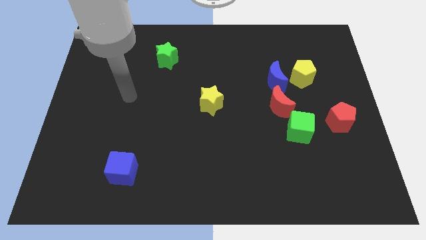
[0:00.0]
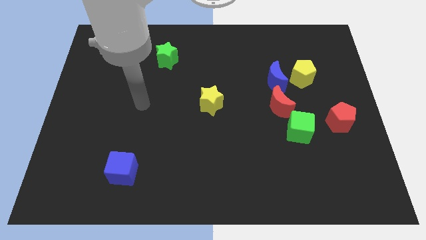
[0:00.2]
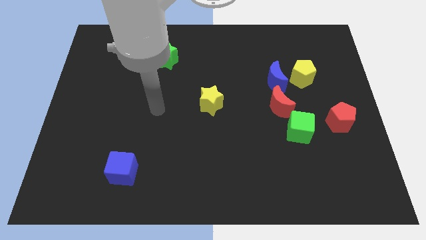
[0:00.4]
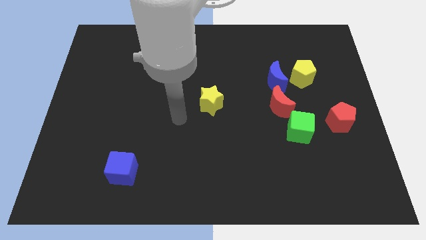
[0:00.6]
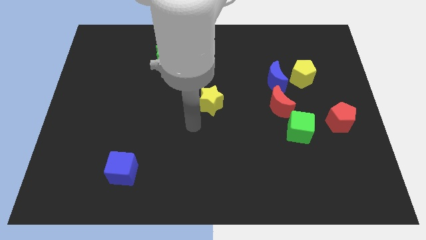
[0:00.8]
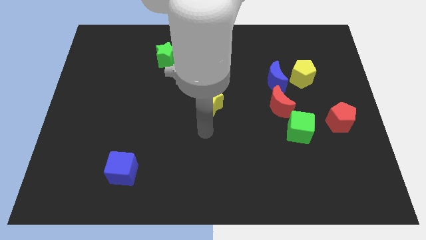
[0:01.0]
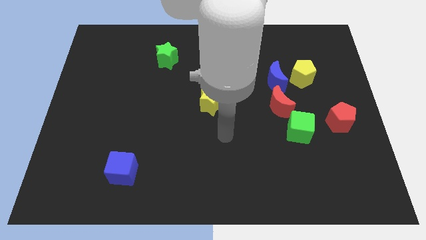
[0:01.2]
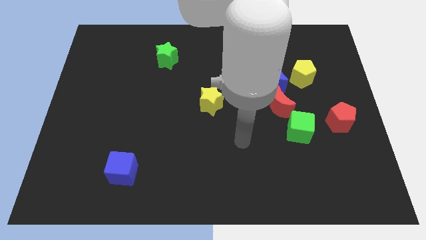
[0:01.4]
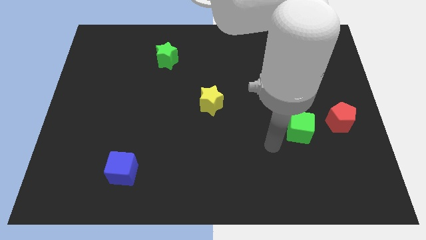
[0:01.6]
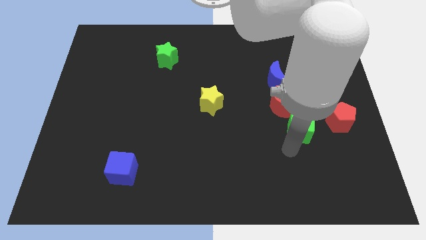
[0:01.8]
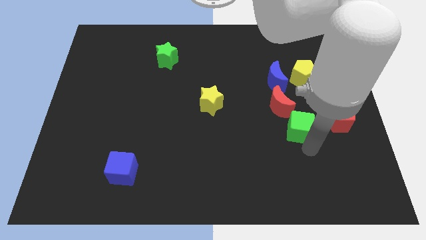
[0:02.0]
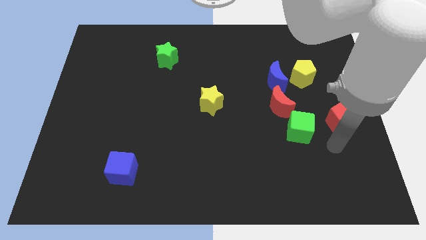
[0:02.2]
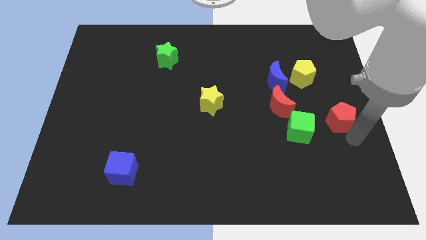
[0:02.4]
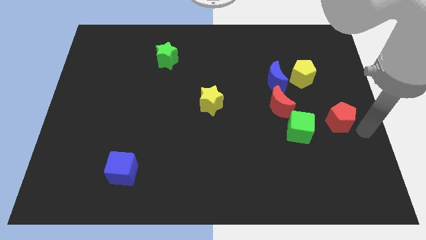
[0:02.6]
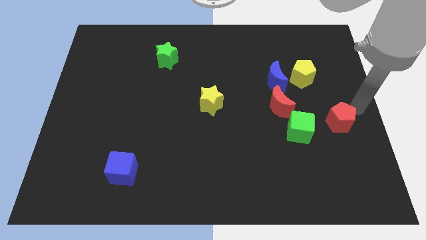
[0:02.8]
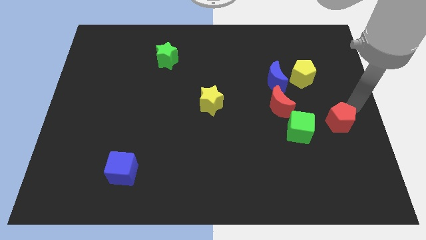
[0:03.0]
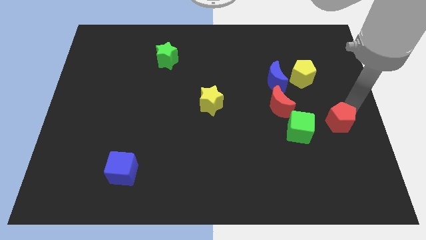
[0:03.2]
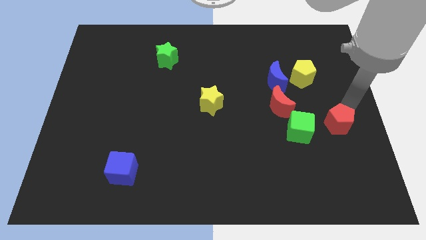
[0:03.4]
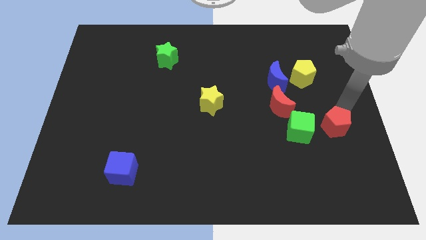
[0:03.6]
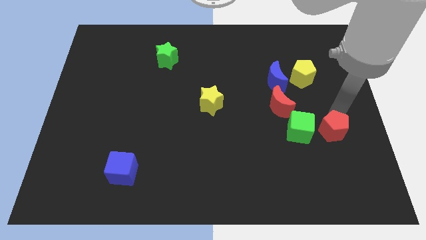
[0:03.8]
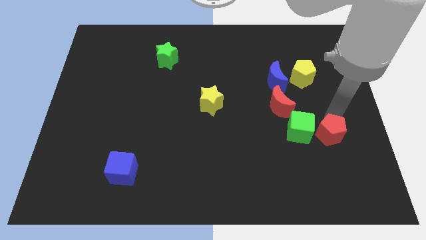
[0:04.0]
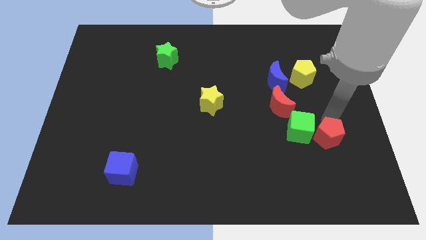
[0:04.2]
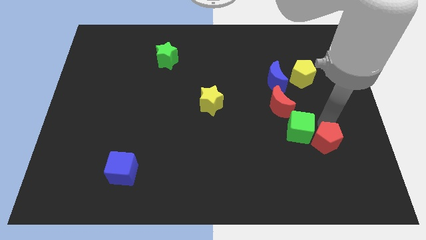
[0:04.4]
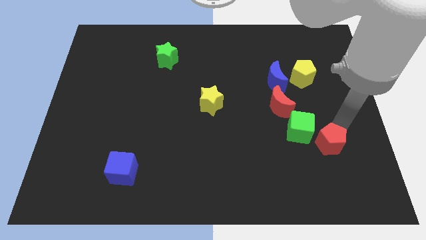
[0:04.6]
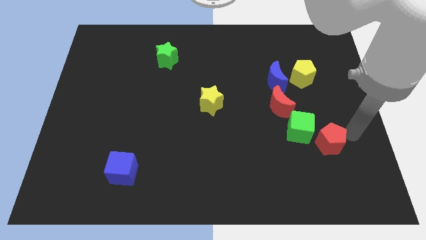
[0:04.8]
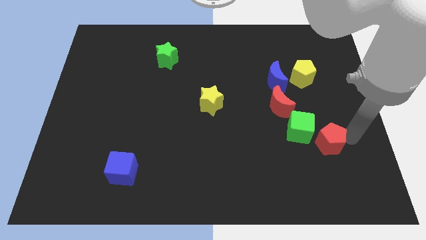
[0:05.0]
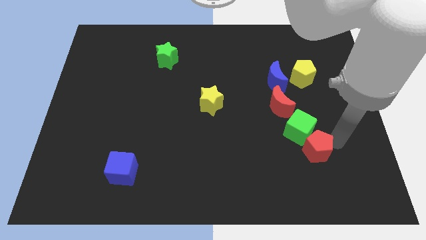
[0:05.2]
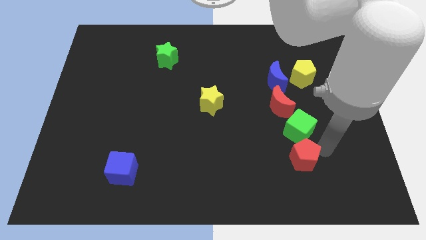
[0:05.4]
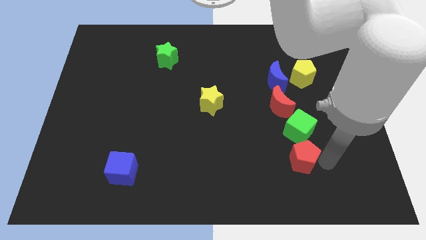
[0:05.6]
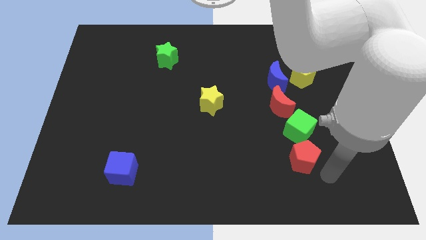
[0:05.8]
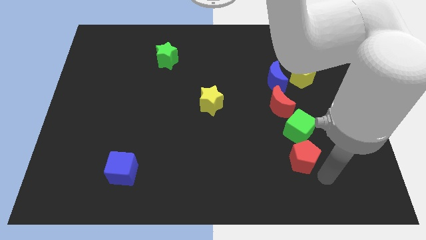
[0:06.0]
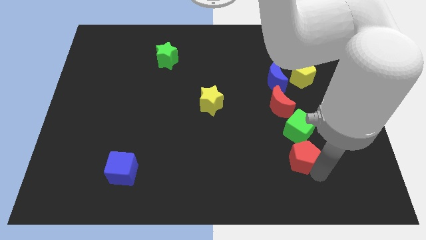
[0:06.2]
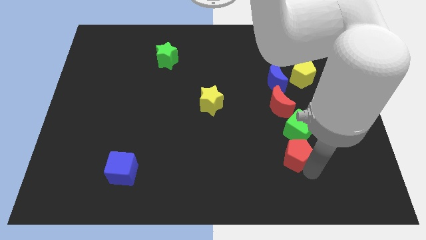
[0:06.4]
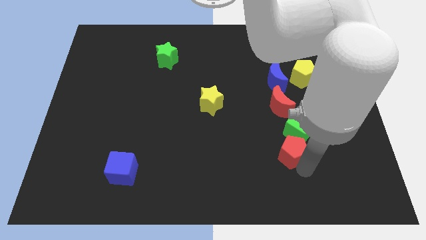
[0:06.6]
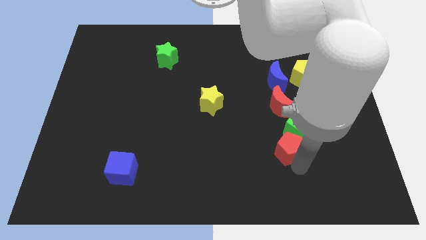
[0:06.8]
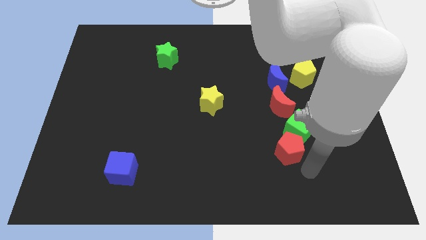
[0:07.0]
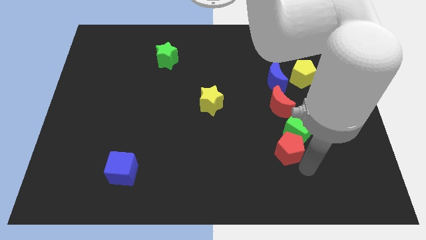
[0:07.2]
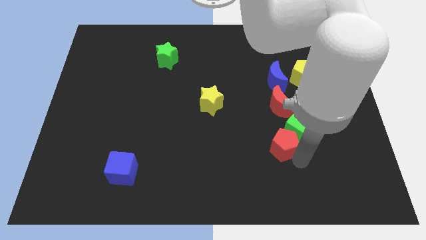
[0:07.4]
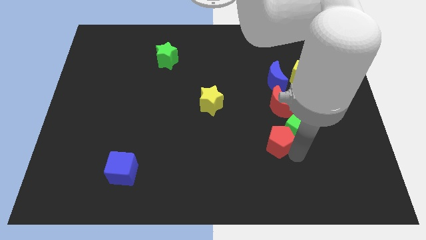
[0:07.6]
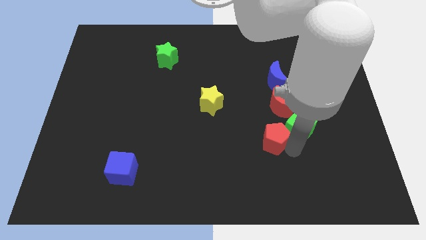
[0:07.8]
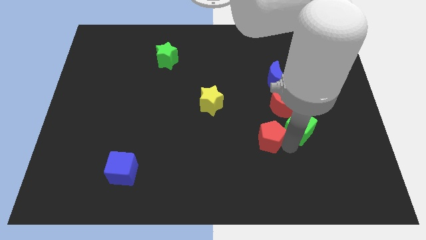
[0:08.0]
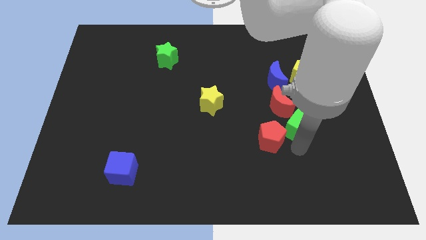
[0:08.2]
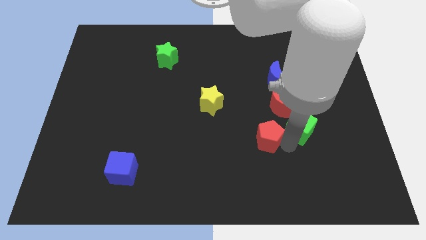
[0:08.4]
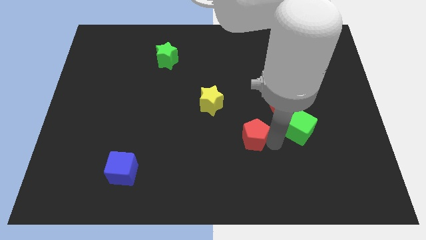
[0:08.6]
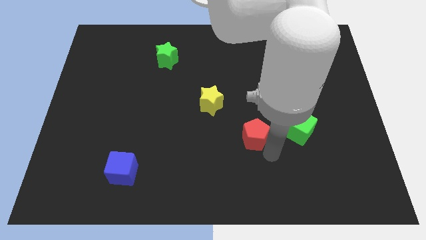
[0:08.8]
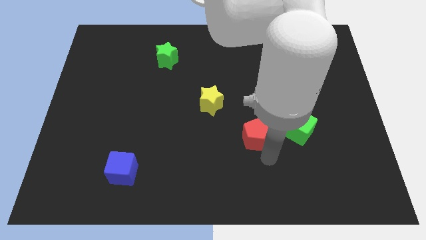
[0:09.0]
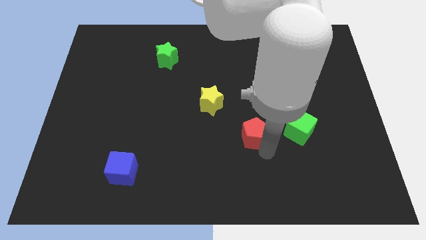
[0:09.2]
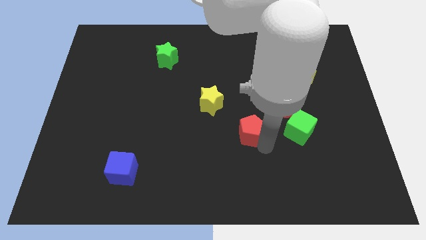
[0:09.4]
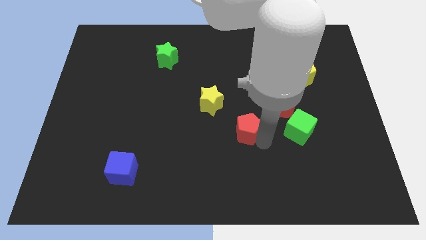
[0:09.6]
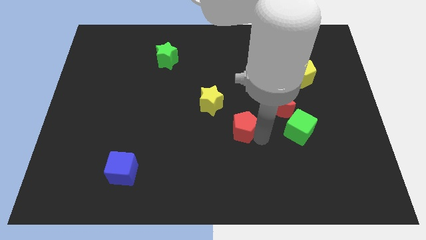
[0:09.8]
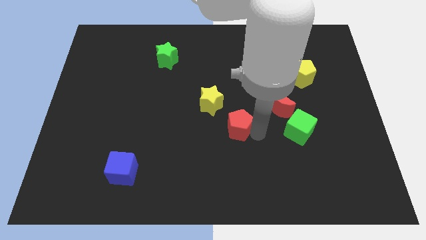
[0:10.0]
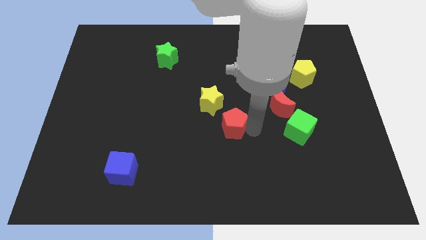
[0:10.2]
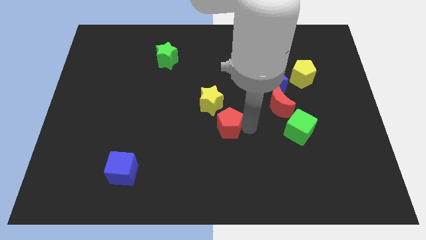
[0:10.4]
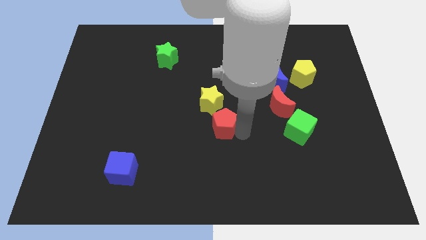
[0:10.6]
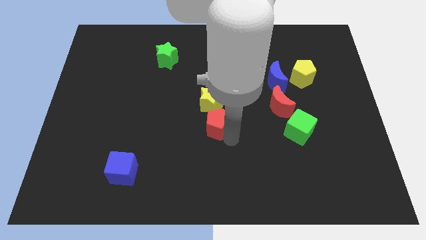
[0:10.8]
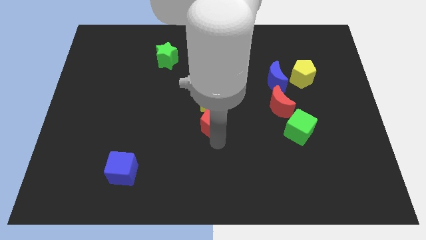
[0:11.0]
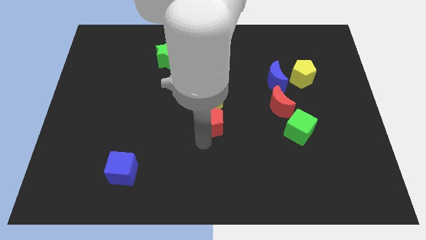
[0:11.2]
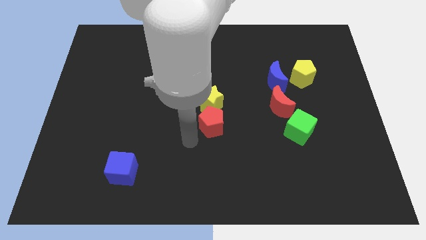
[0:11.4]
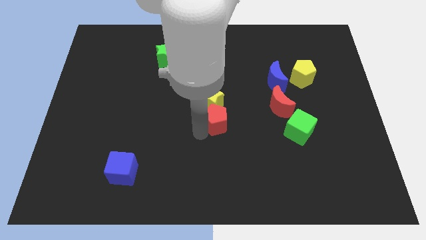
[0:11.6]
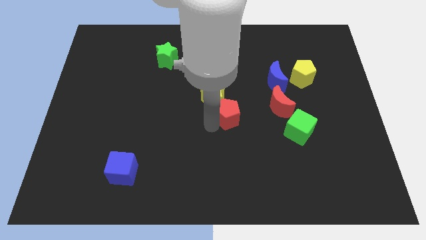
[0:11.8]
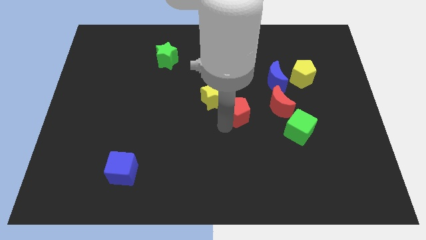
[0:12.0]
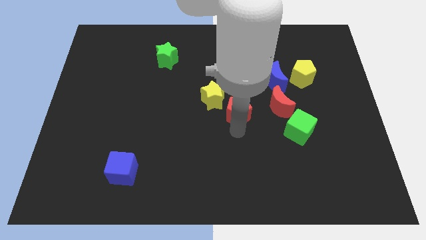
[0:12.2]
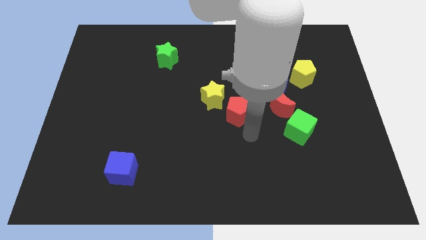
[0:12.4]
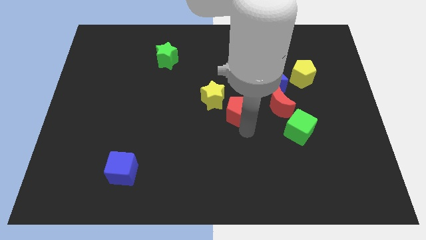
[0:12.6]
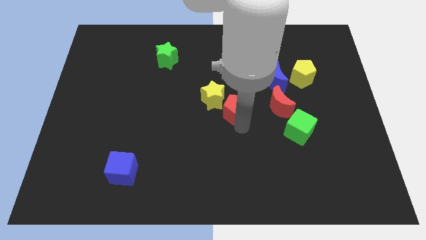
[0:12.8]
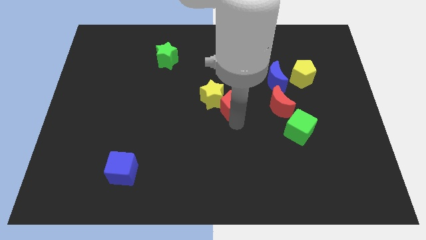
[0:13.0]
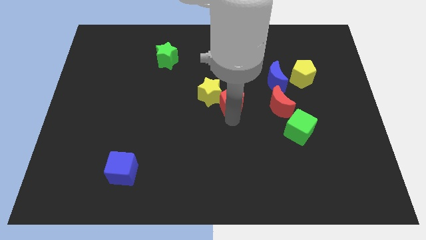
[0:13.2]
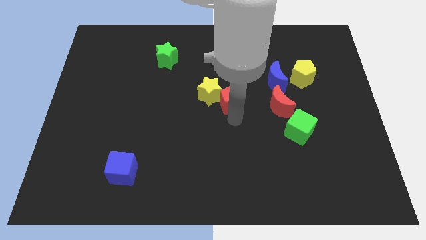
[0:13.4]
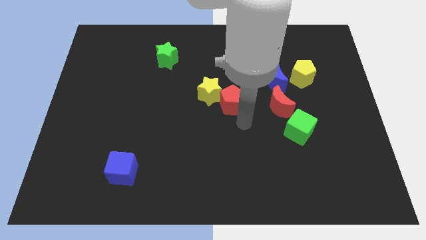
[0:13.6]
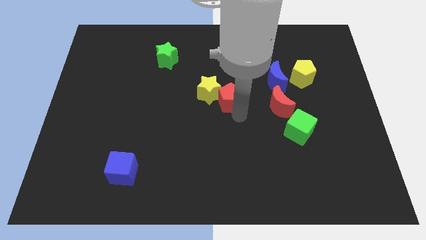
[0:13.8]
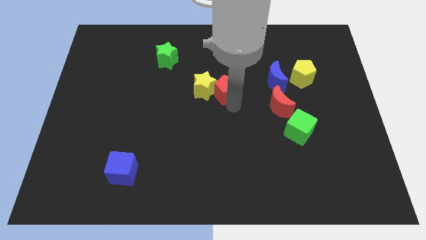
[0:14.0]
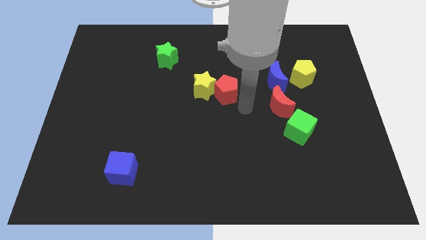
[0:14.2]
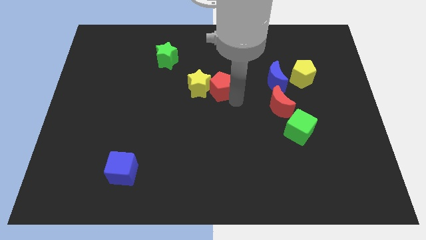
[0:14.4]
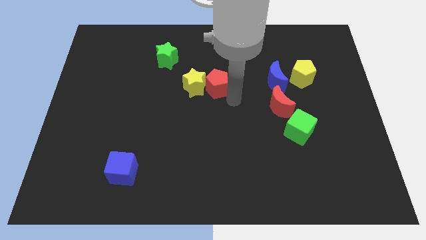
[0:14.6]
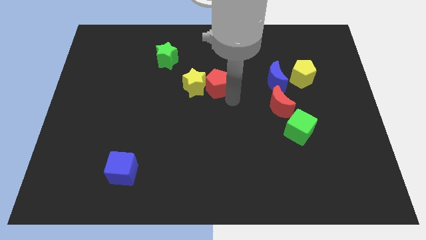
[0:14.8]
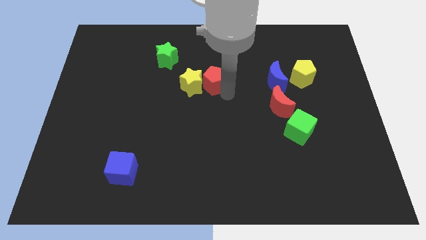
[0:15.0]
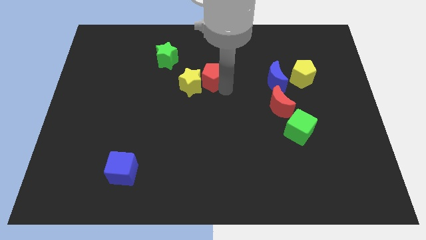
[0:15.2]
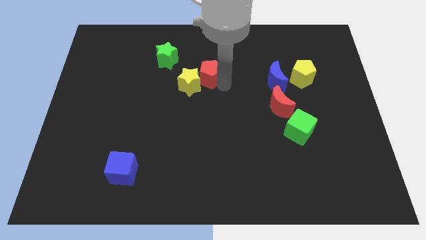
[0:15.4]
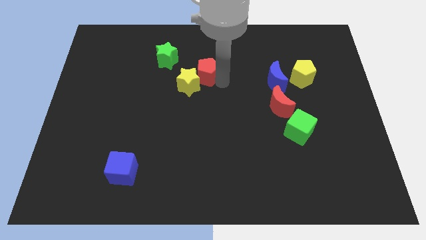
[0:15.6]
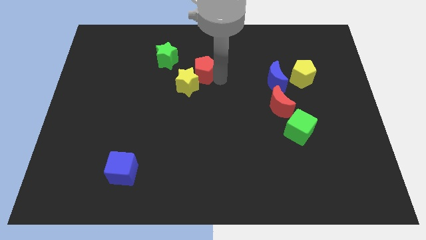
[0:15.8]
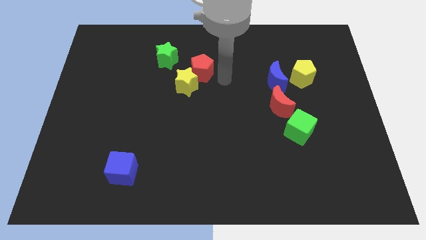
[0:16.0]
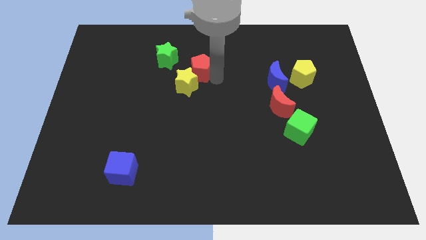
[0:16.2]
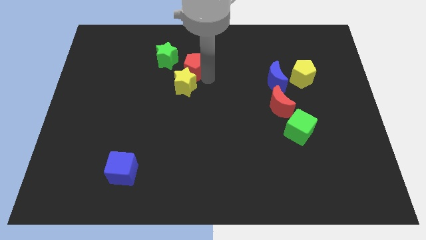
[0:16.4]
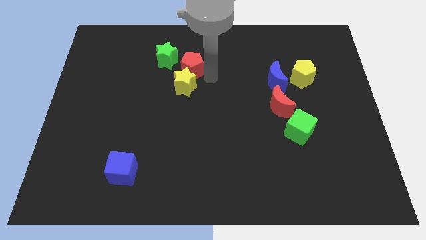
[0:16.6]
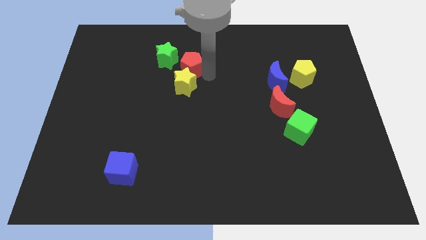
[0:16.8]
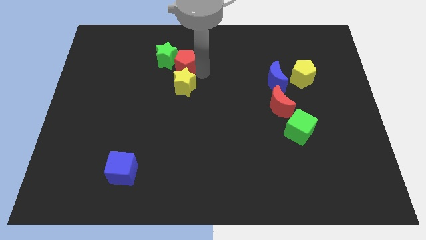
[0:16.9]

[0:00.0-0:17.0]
push the red pentagon next to the green star
